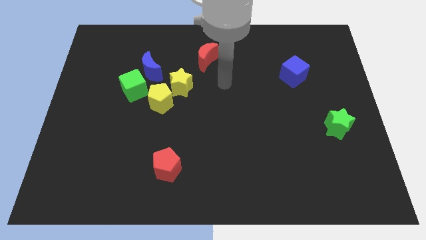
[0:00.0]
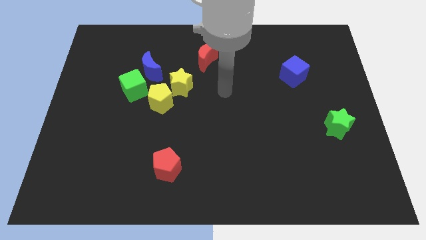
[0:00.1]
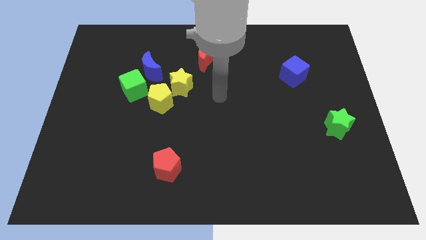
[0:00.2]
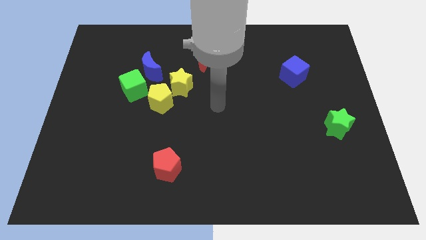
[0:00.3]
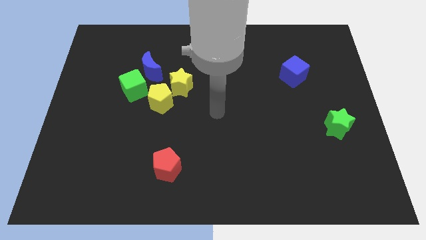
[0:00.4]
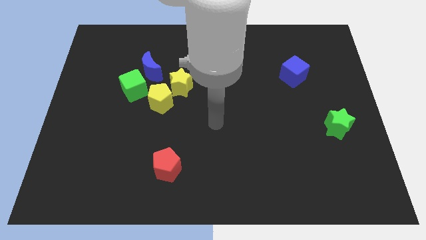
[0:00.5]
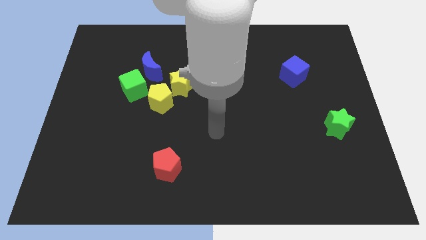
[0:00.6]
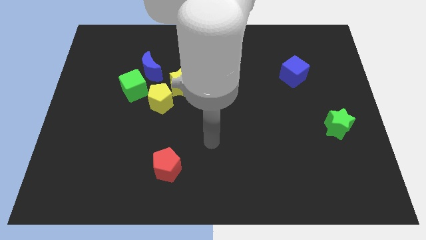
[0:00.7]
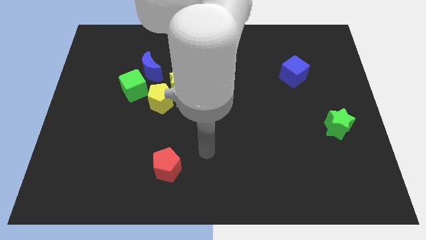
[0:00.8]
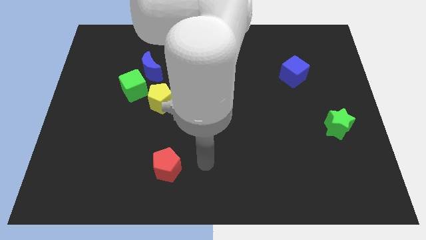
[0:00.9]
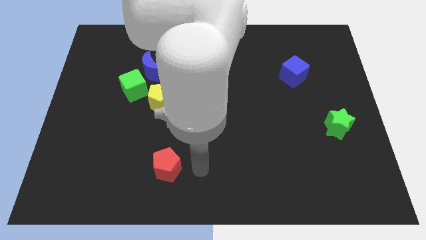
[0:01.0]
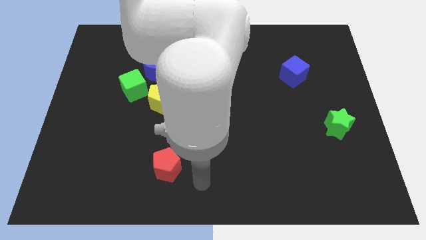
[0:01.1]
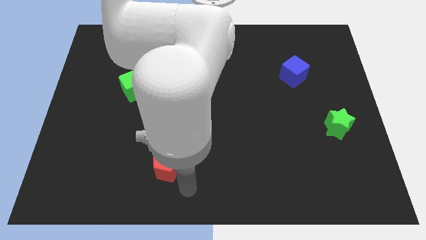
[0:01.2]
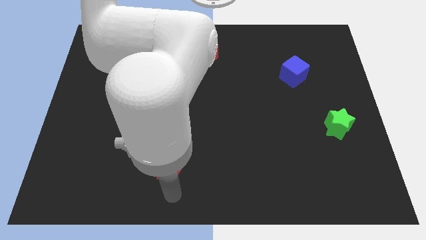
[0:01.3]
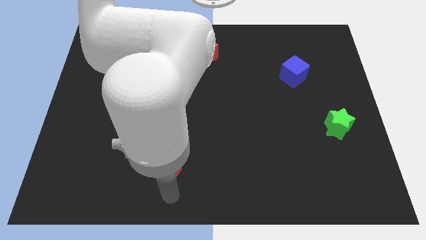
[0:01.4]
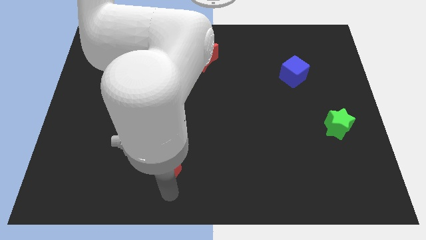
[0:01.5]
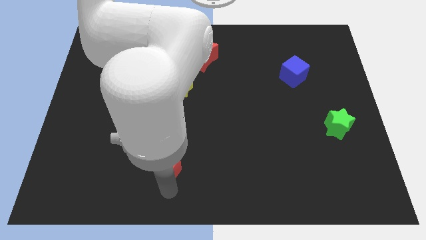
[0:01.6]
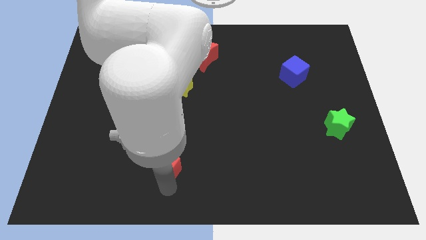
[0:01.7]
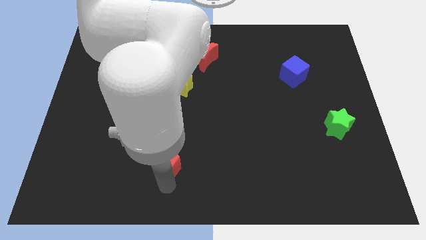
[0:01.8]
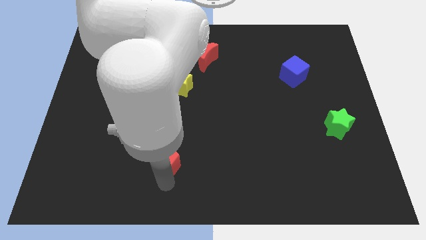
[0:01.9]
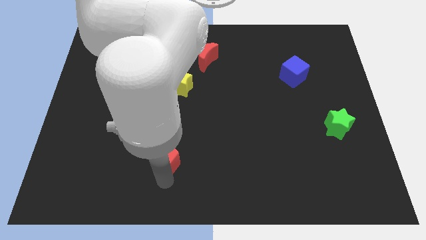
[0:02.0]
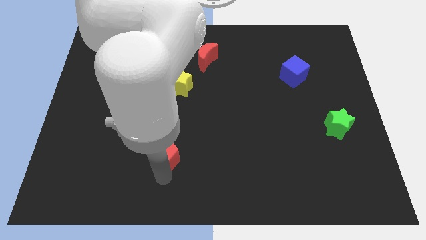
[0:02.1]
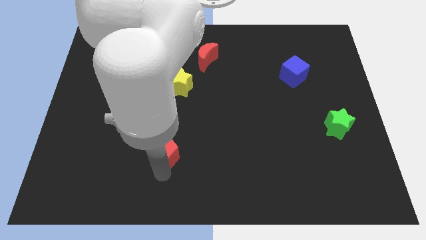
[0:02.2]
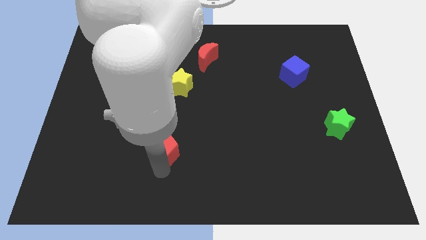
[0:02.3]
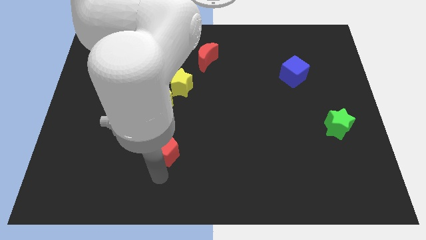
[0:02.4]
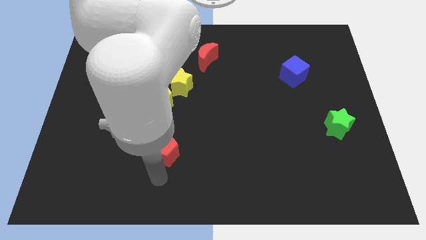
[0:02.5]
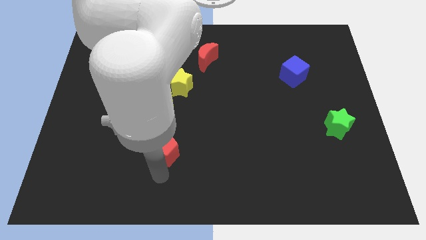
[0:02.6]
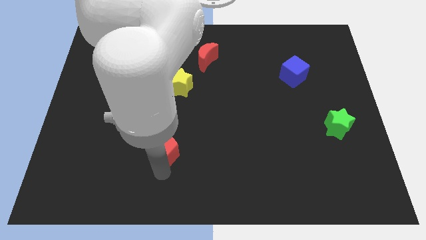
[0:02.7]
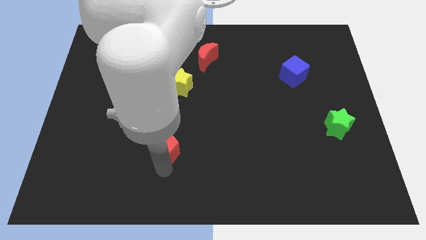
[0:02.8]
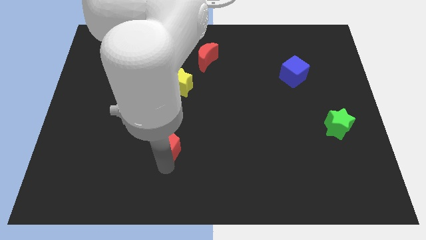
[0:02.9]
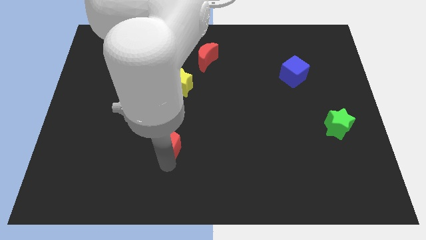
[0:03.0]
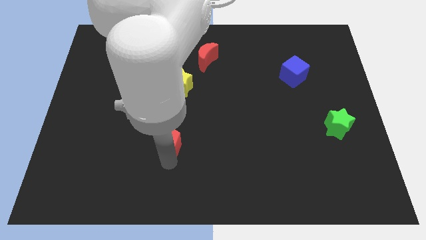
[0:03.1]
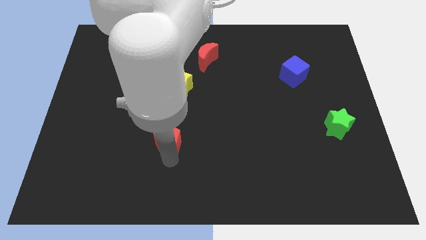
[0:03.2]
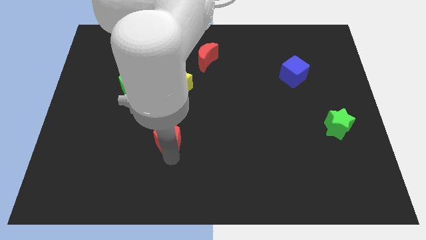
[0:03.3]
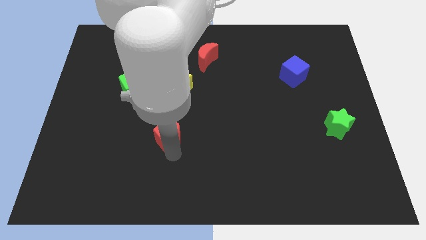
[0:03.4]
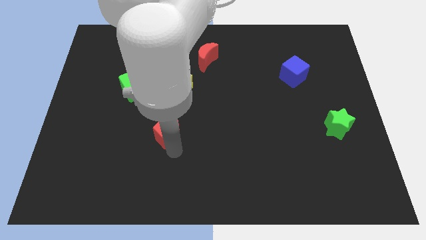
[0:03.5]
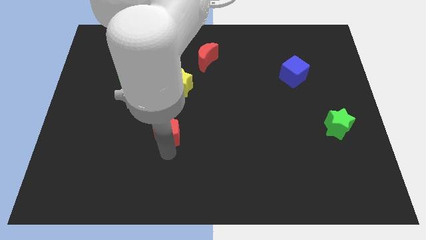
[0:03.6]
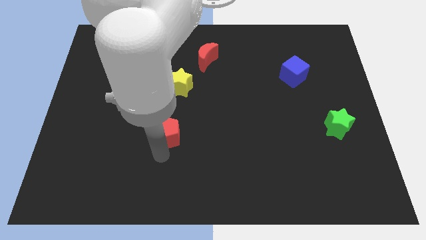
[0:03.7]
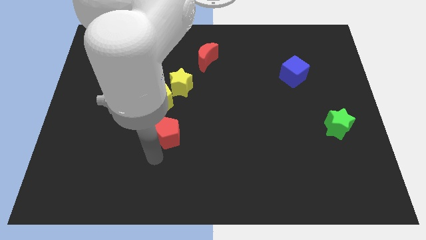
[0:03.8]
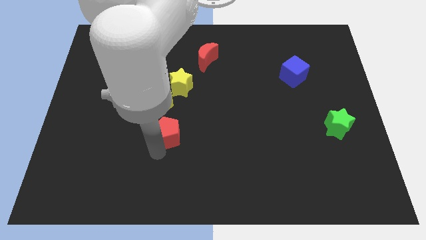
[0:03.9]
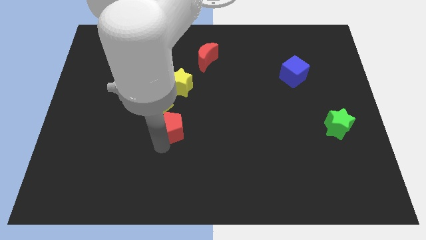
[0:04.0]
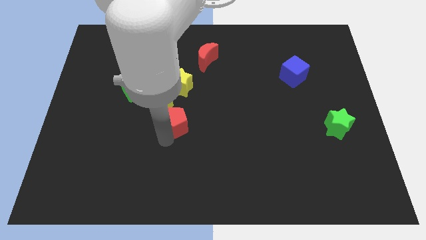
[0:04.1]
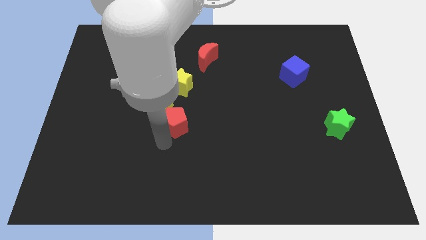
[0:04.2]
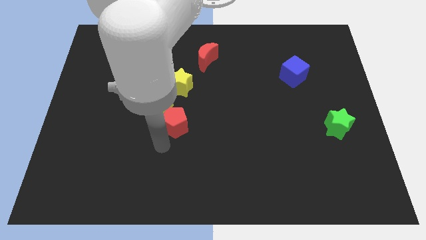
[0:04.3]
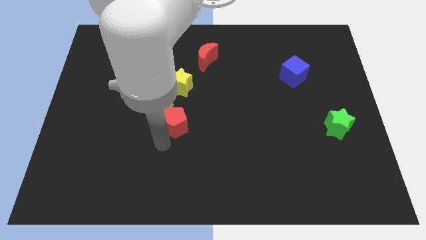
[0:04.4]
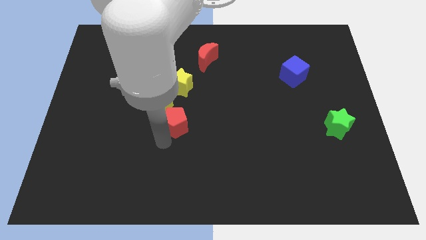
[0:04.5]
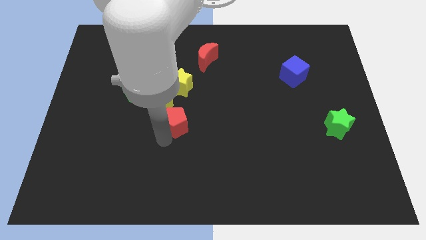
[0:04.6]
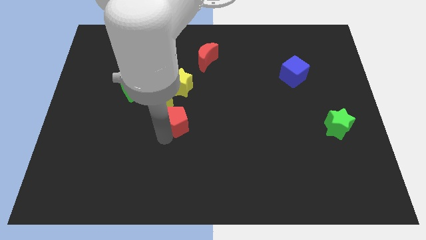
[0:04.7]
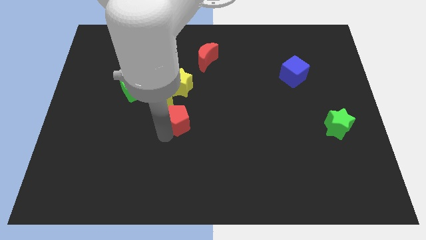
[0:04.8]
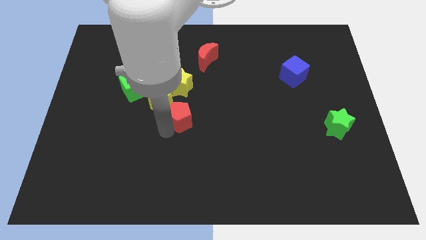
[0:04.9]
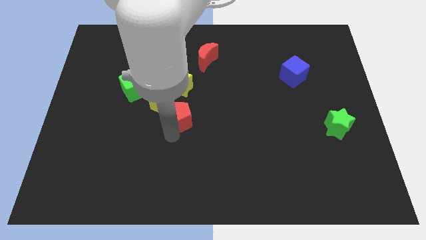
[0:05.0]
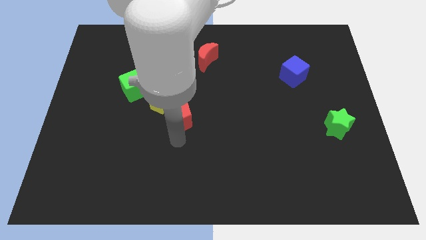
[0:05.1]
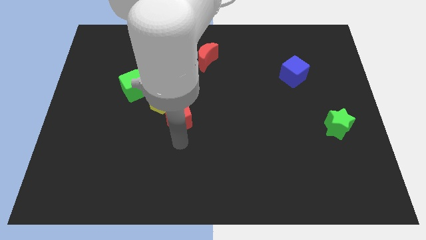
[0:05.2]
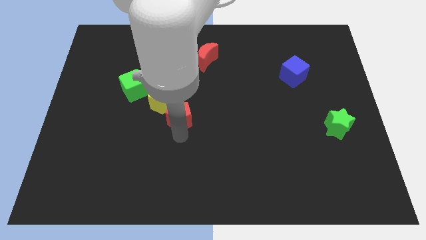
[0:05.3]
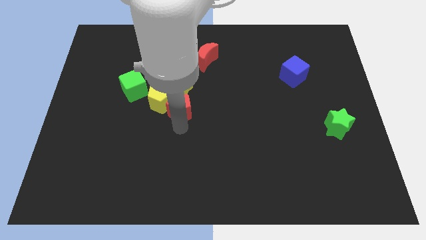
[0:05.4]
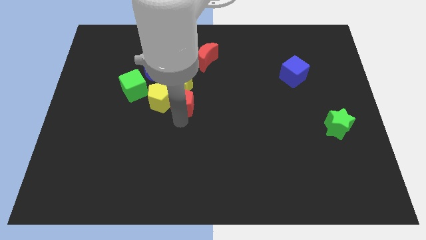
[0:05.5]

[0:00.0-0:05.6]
push the red pentagon towards the yellow star

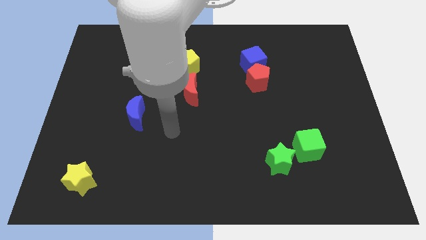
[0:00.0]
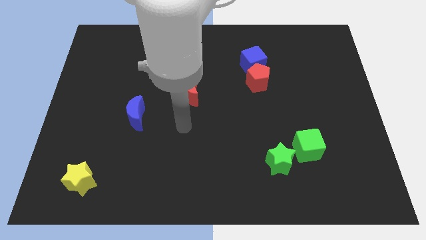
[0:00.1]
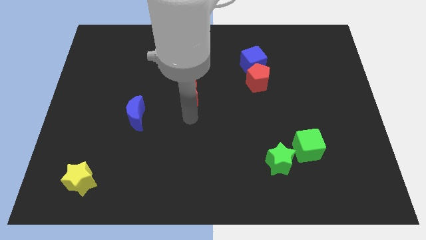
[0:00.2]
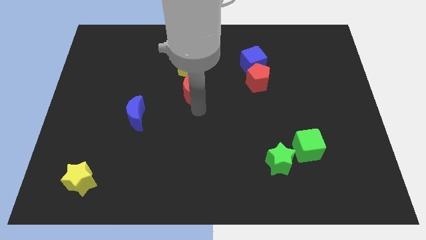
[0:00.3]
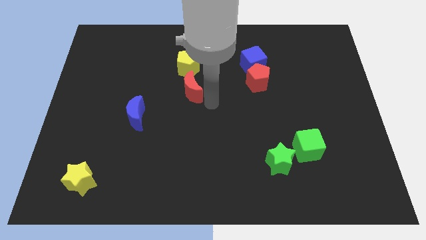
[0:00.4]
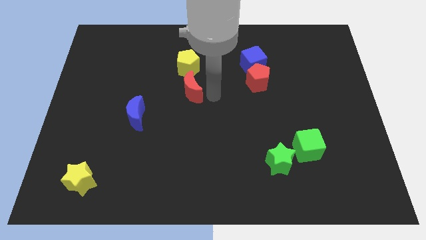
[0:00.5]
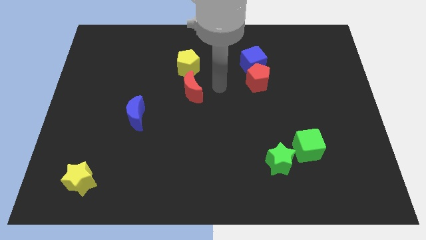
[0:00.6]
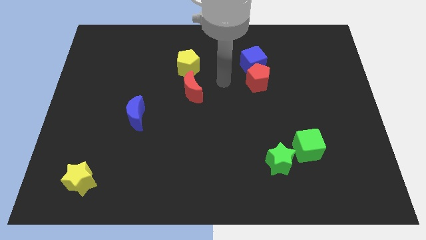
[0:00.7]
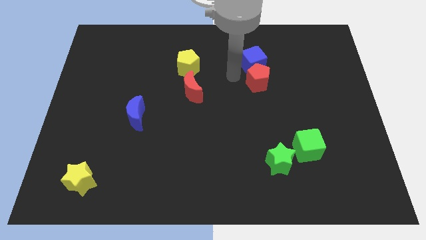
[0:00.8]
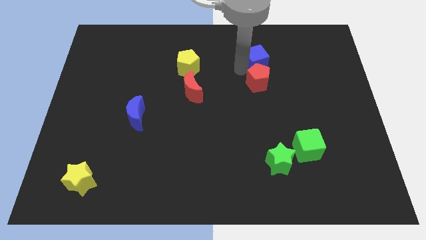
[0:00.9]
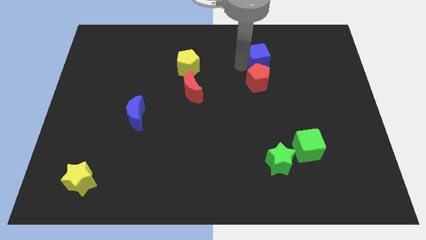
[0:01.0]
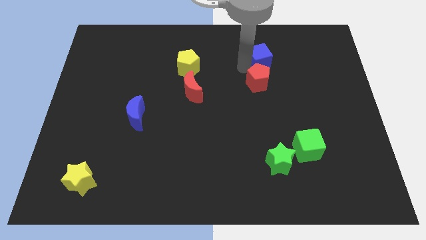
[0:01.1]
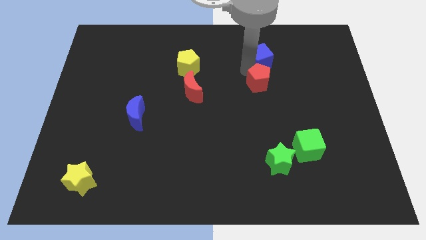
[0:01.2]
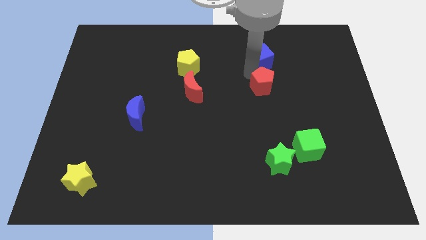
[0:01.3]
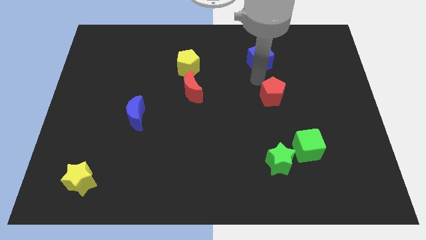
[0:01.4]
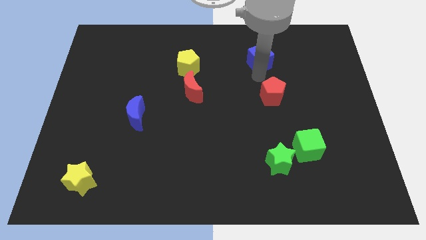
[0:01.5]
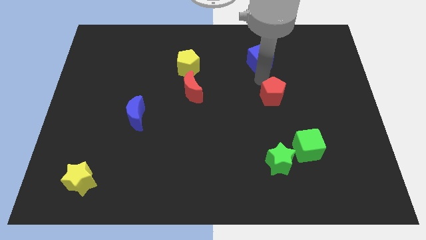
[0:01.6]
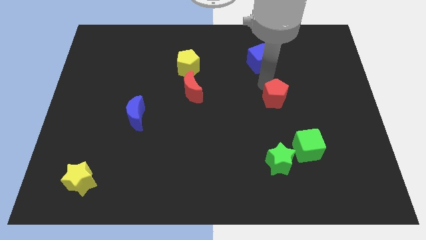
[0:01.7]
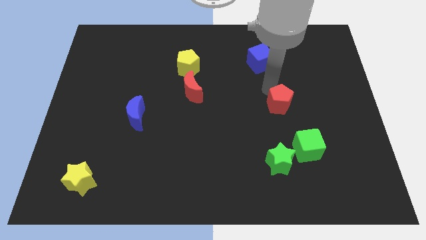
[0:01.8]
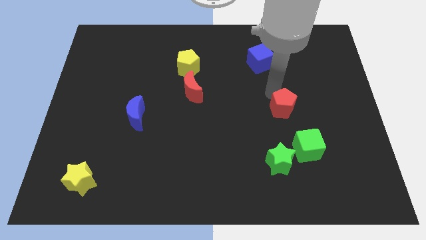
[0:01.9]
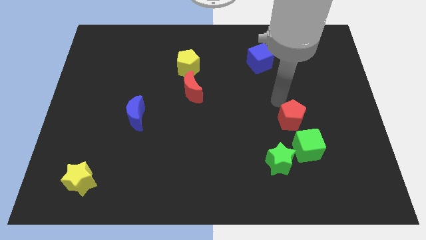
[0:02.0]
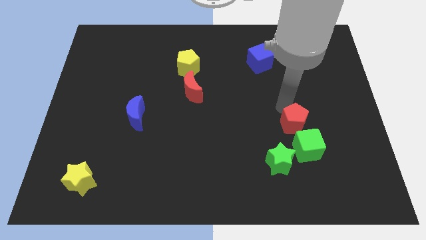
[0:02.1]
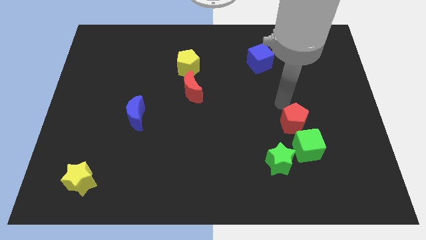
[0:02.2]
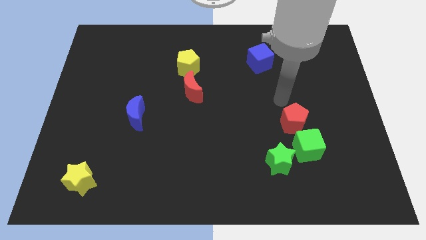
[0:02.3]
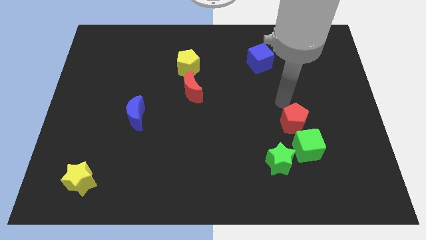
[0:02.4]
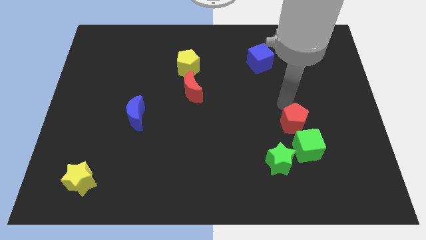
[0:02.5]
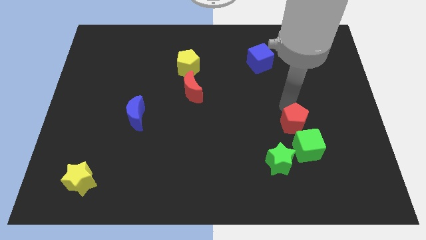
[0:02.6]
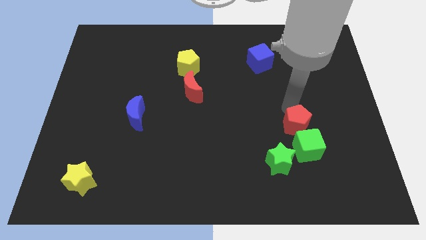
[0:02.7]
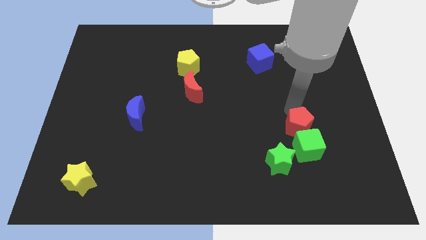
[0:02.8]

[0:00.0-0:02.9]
move the red pentagon close to the green cube
